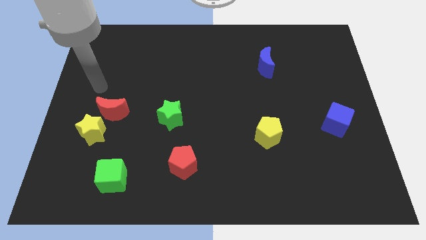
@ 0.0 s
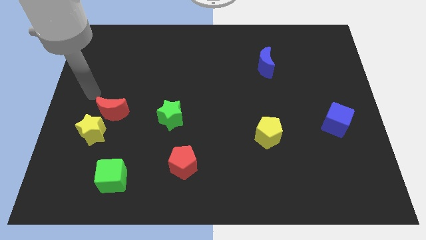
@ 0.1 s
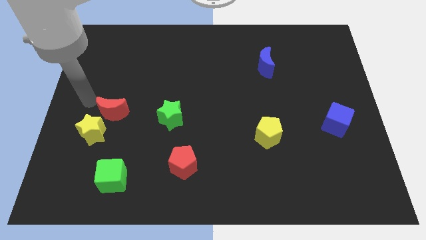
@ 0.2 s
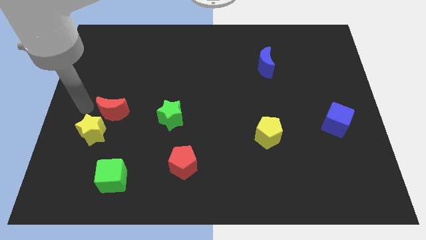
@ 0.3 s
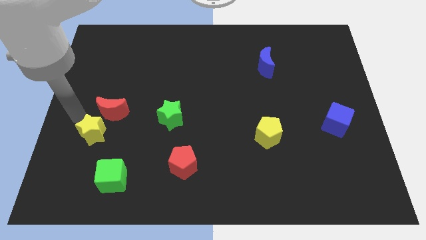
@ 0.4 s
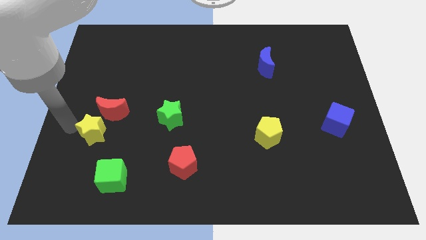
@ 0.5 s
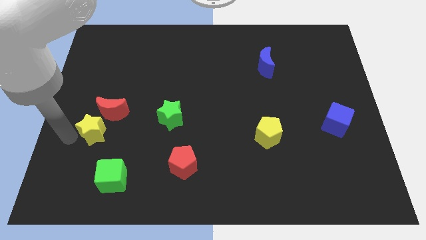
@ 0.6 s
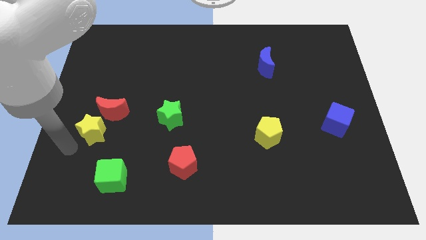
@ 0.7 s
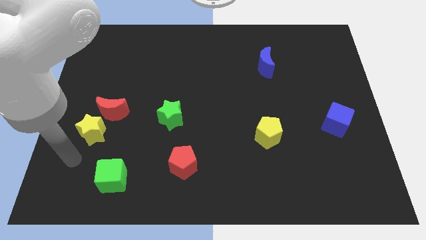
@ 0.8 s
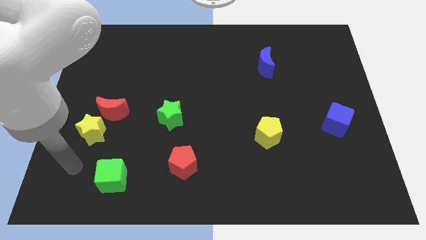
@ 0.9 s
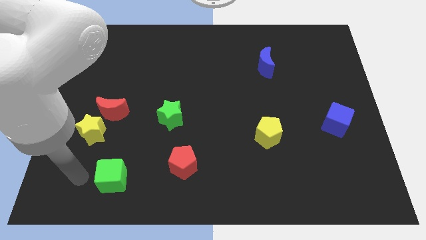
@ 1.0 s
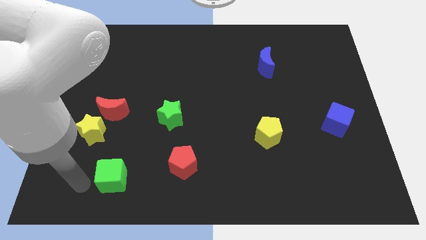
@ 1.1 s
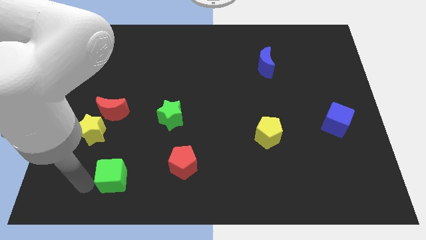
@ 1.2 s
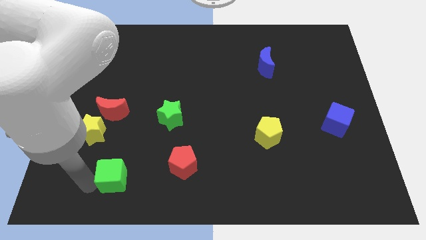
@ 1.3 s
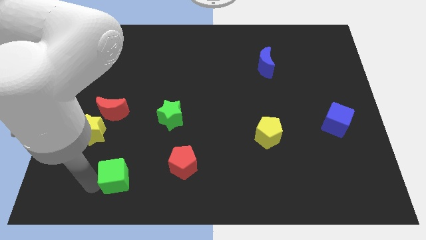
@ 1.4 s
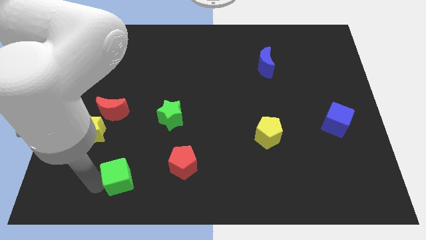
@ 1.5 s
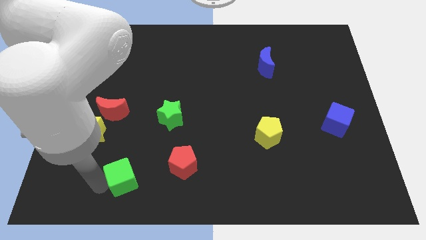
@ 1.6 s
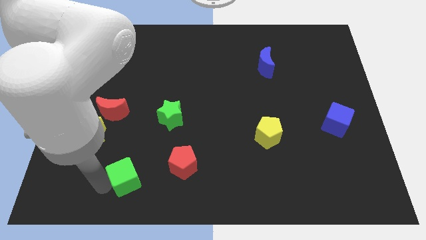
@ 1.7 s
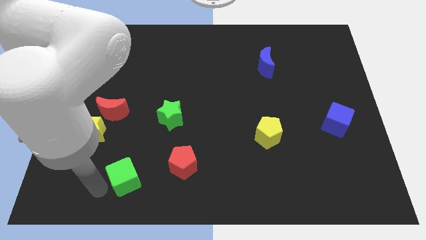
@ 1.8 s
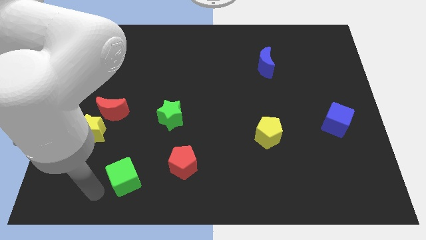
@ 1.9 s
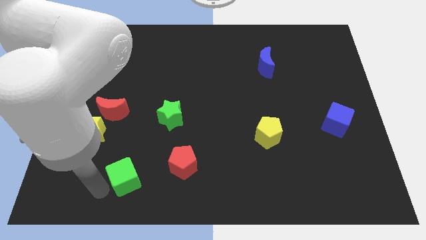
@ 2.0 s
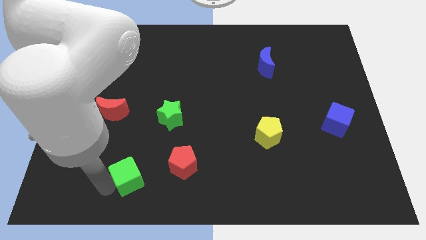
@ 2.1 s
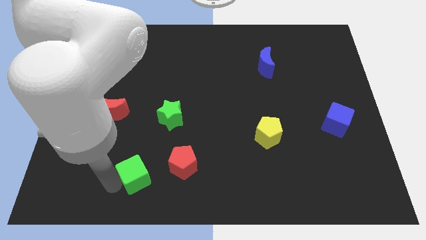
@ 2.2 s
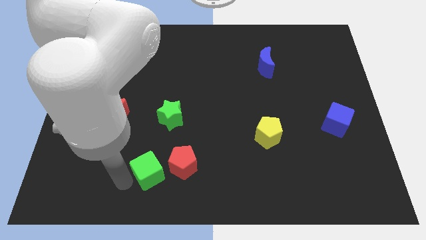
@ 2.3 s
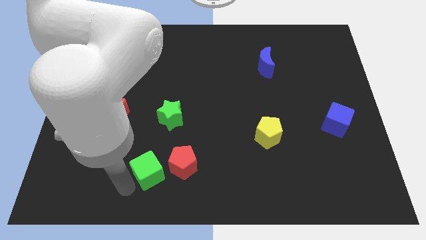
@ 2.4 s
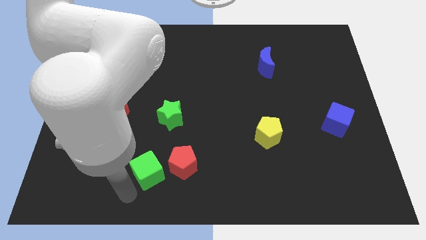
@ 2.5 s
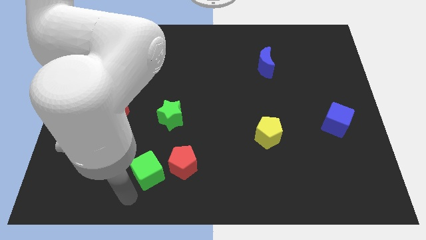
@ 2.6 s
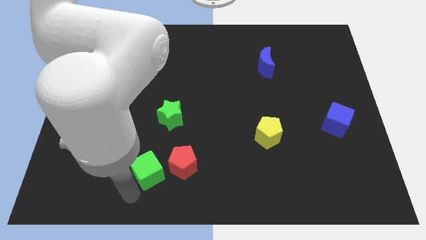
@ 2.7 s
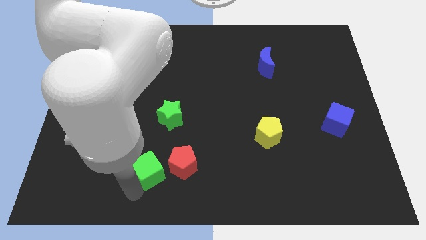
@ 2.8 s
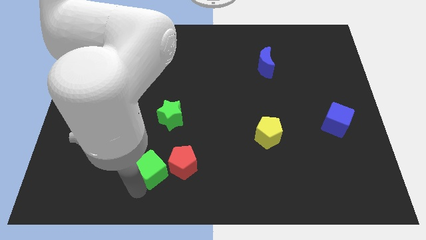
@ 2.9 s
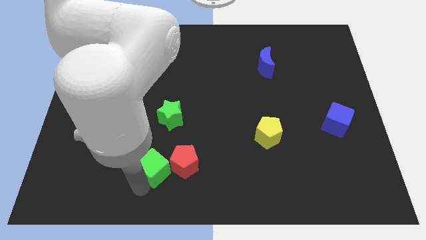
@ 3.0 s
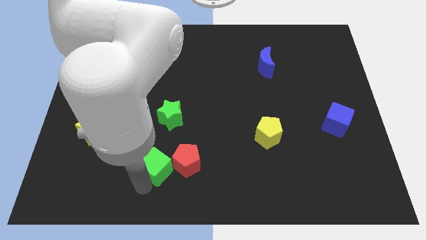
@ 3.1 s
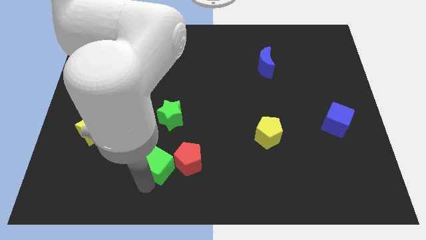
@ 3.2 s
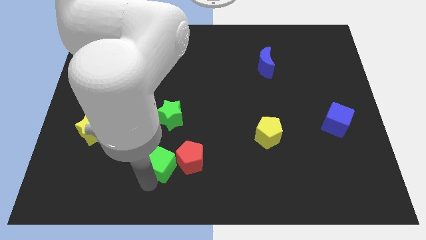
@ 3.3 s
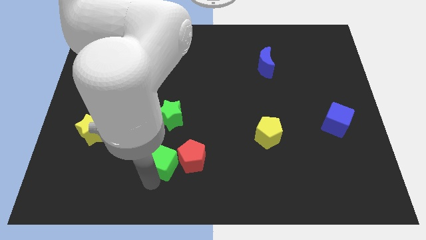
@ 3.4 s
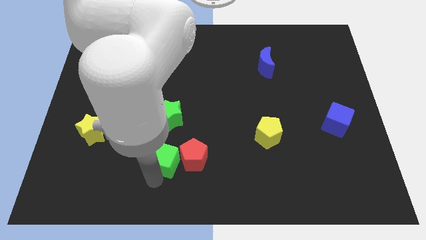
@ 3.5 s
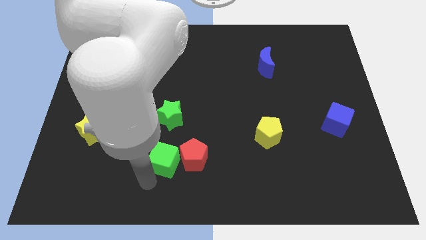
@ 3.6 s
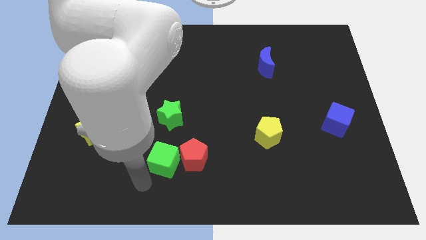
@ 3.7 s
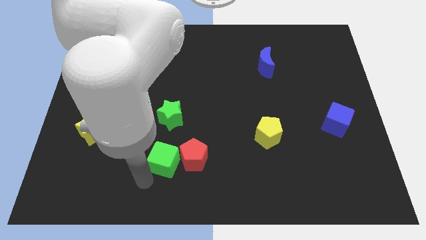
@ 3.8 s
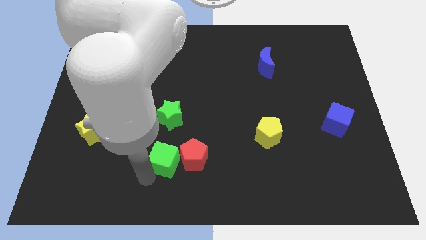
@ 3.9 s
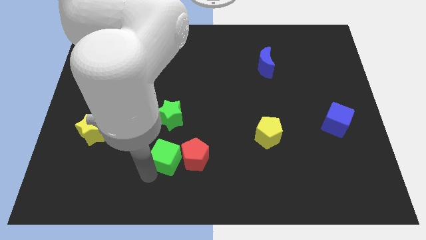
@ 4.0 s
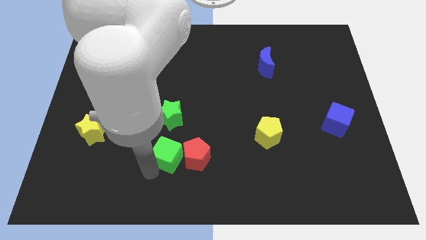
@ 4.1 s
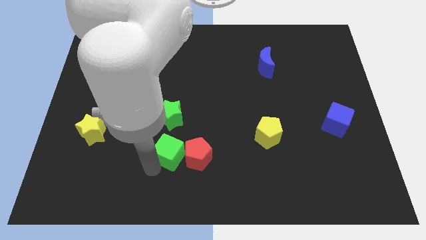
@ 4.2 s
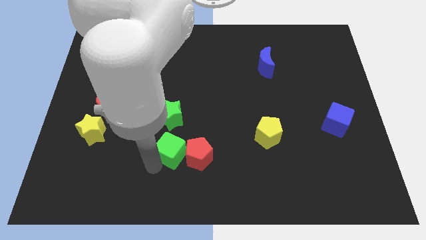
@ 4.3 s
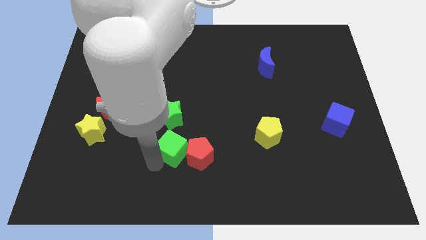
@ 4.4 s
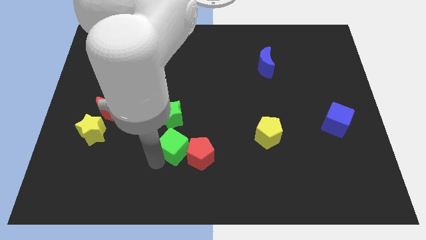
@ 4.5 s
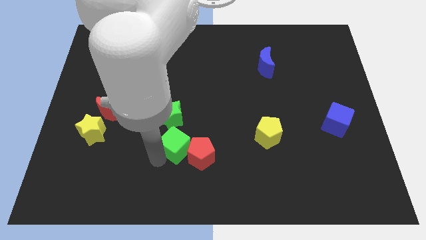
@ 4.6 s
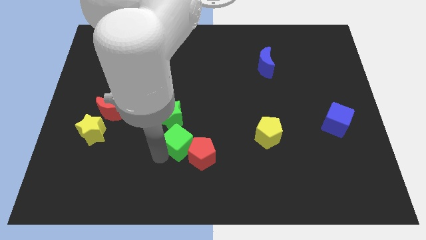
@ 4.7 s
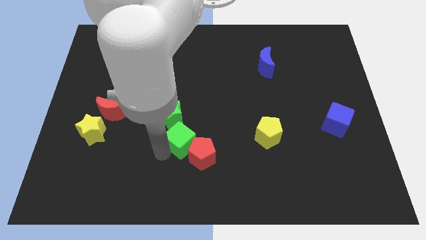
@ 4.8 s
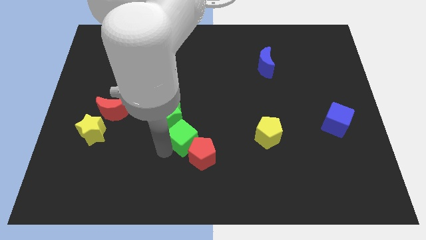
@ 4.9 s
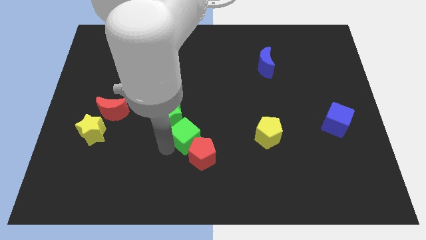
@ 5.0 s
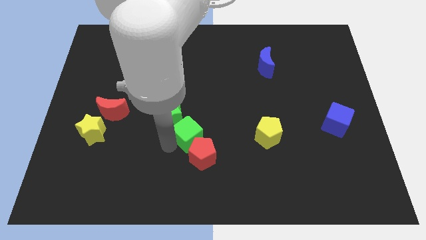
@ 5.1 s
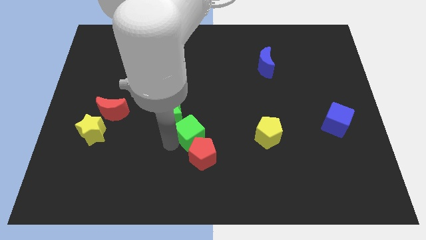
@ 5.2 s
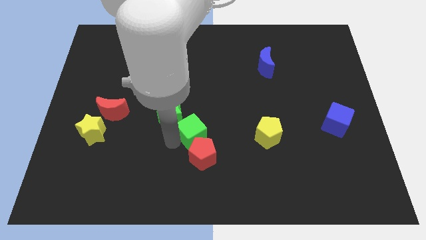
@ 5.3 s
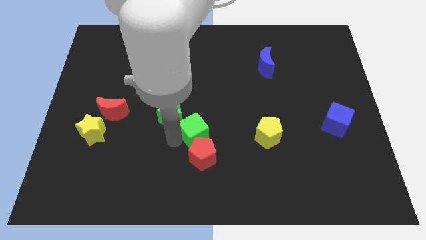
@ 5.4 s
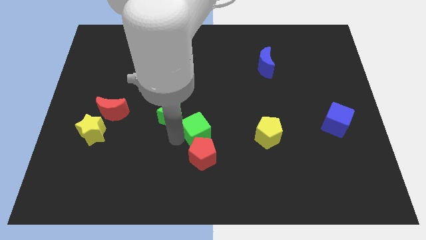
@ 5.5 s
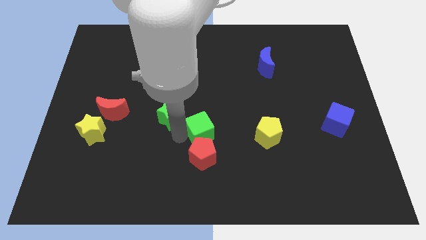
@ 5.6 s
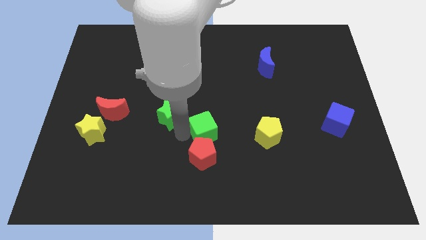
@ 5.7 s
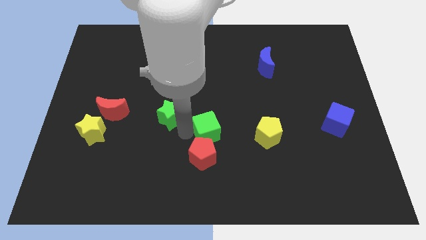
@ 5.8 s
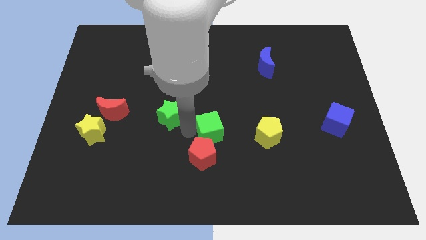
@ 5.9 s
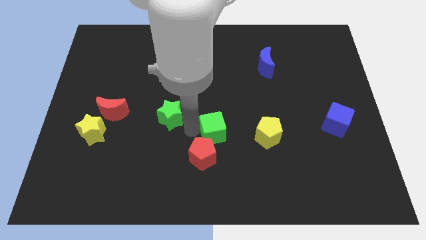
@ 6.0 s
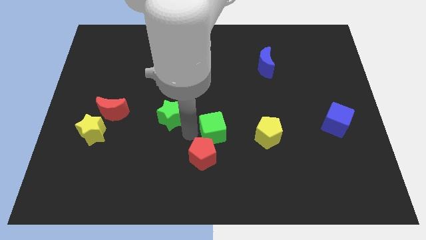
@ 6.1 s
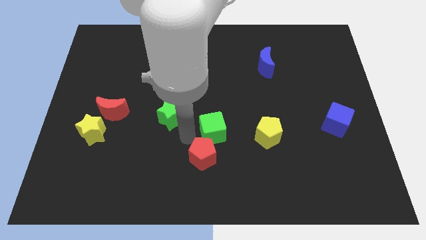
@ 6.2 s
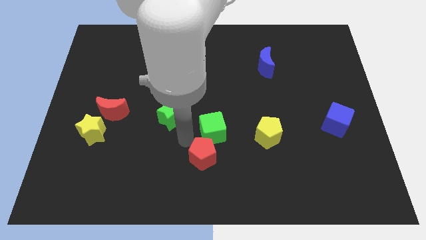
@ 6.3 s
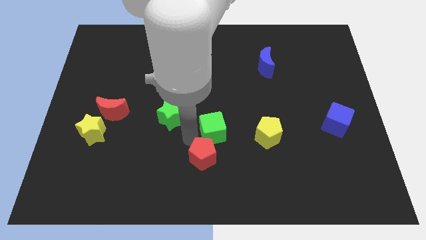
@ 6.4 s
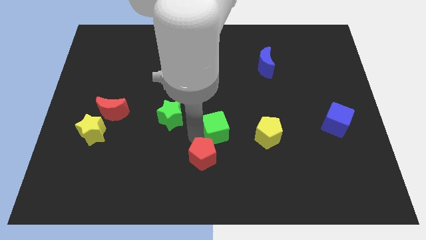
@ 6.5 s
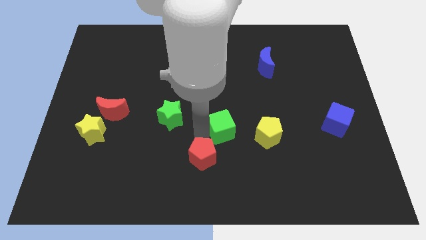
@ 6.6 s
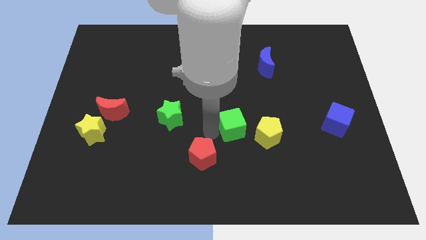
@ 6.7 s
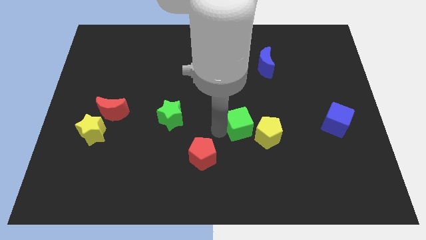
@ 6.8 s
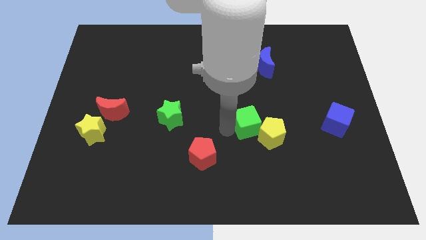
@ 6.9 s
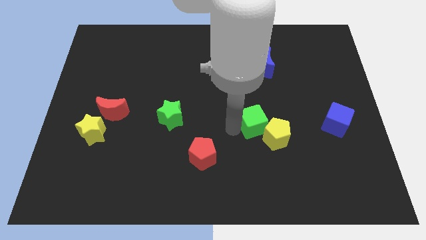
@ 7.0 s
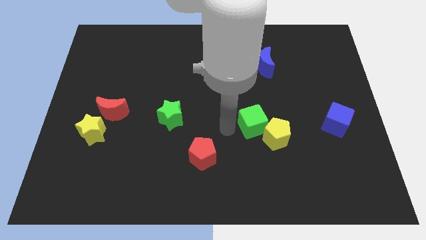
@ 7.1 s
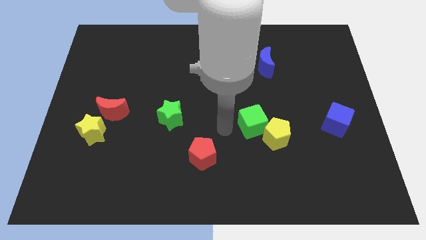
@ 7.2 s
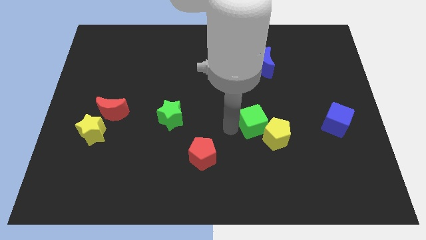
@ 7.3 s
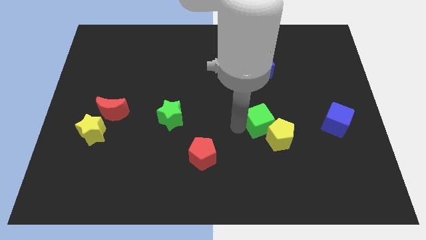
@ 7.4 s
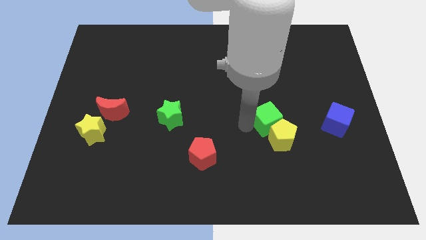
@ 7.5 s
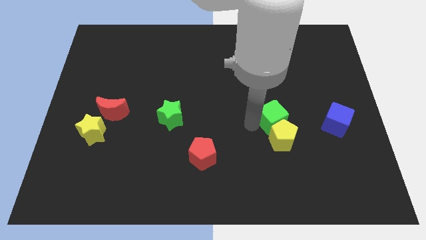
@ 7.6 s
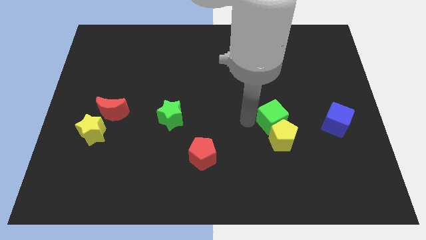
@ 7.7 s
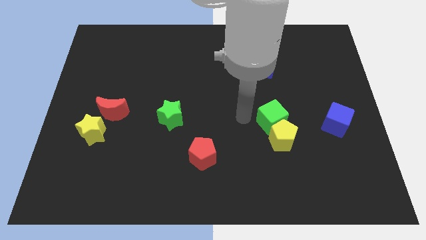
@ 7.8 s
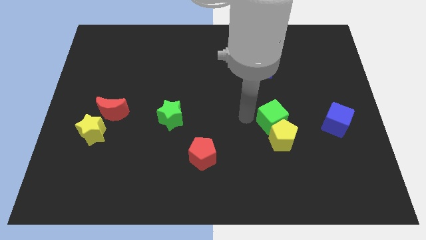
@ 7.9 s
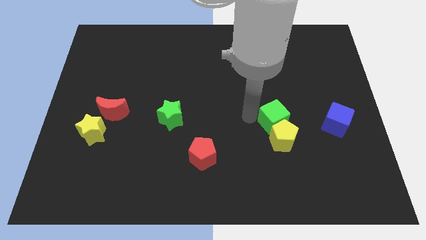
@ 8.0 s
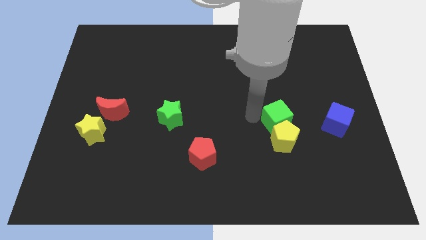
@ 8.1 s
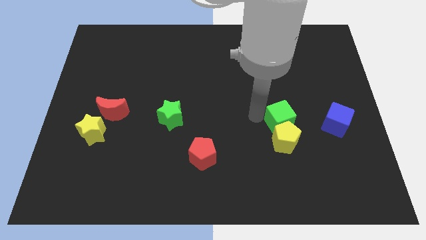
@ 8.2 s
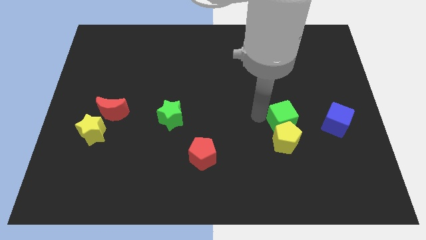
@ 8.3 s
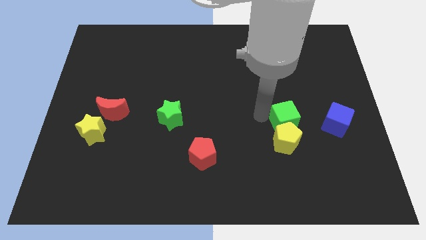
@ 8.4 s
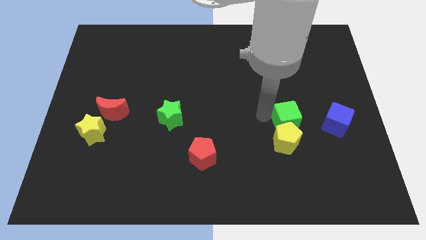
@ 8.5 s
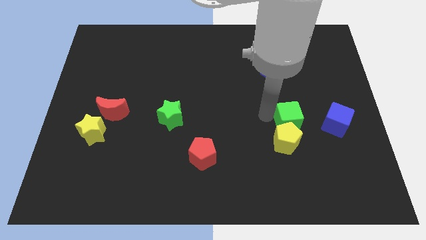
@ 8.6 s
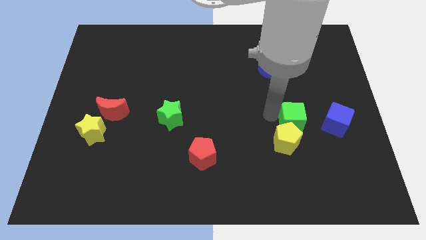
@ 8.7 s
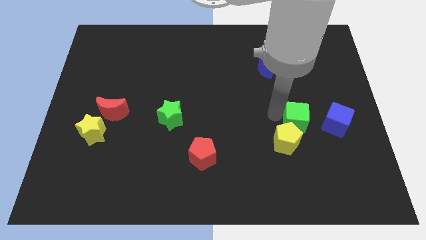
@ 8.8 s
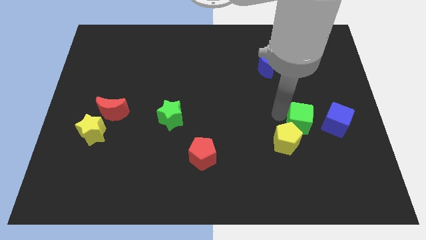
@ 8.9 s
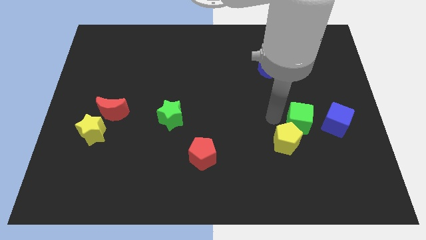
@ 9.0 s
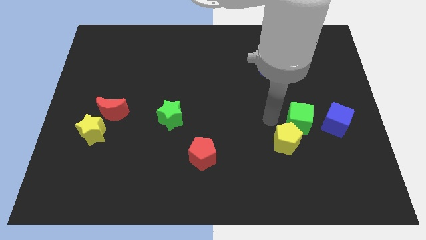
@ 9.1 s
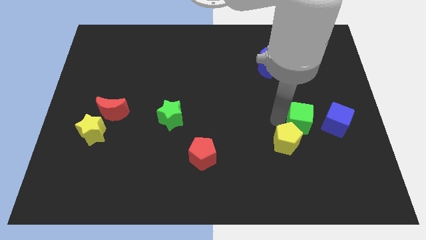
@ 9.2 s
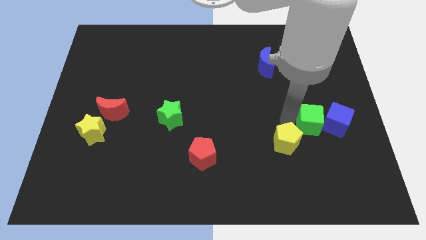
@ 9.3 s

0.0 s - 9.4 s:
push the green cube close to the blue cube
